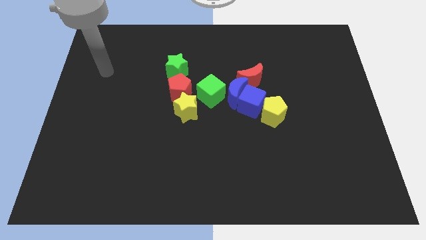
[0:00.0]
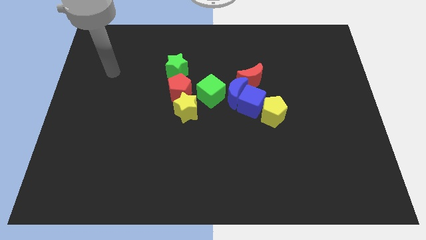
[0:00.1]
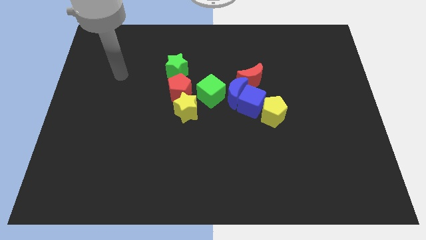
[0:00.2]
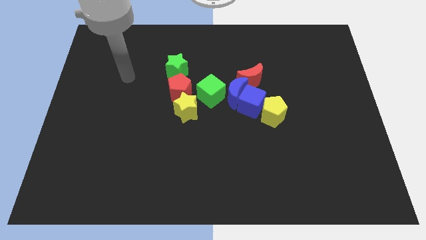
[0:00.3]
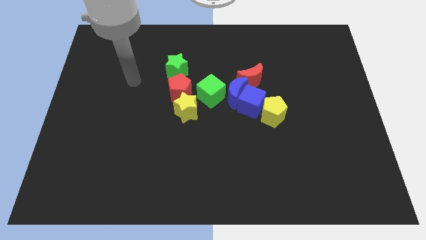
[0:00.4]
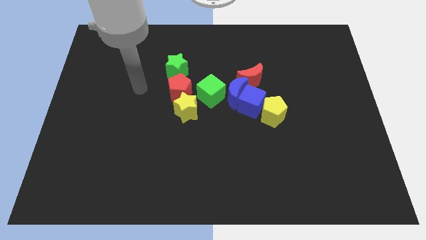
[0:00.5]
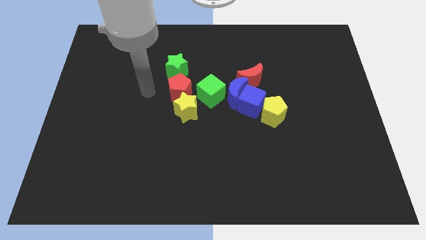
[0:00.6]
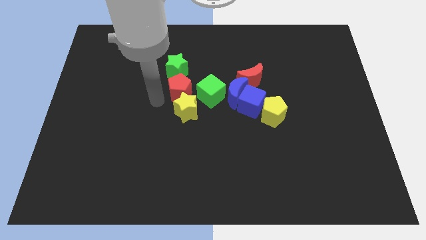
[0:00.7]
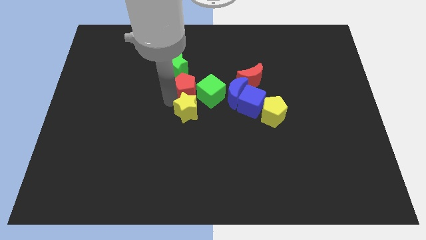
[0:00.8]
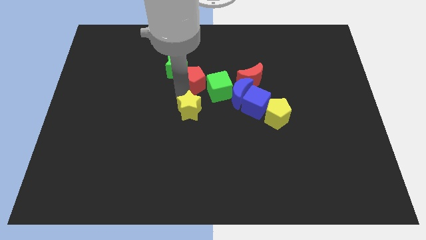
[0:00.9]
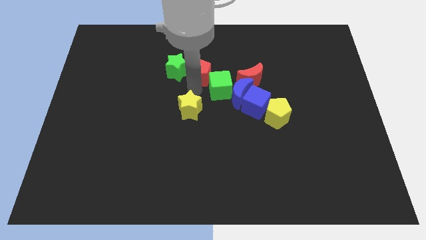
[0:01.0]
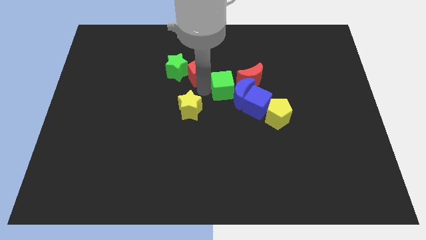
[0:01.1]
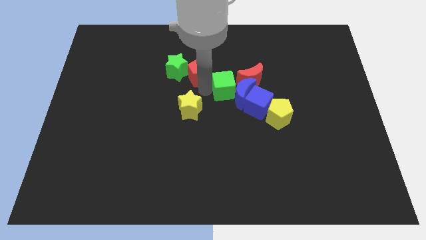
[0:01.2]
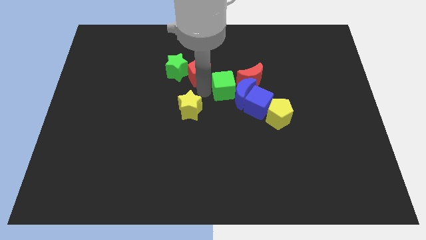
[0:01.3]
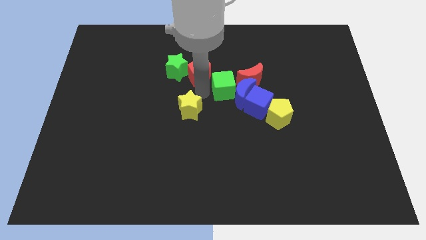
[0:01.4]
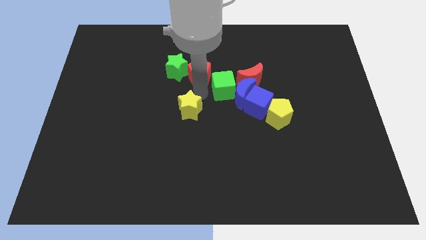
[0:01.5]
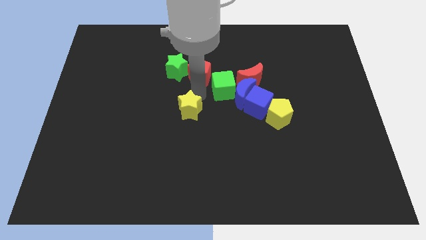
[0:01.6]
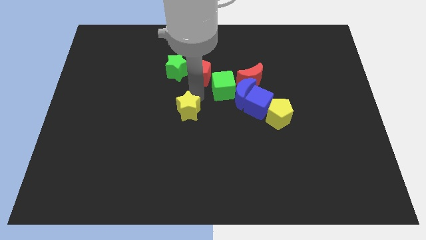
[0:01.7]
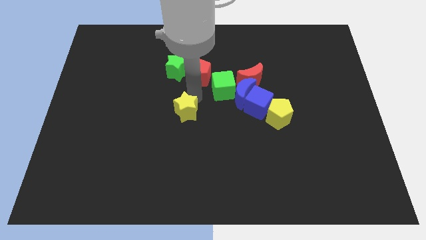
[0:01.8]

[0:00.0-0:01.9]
pull the yellow star apart from the red pentagon and green cube

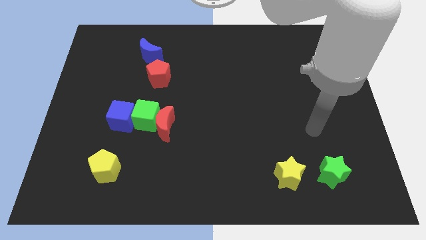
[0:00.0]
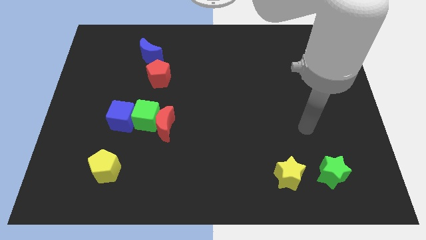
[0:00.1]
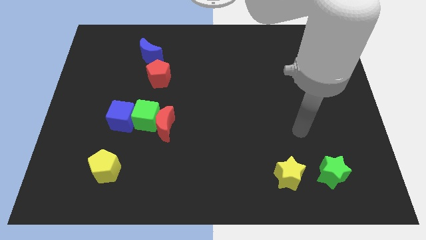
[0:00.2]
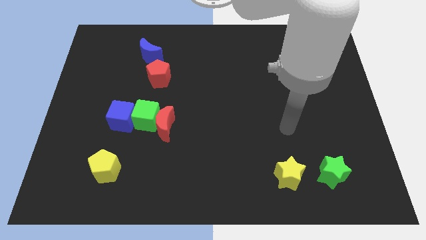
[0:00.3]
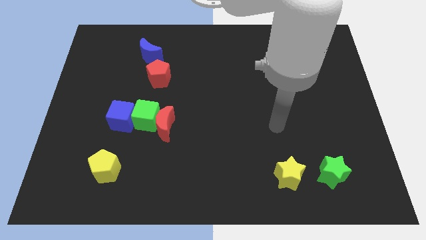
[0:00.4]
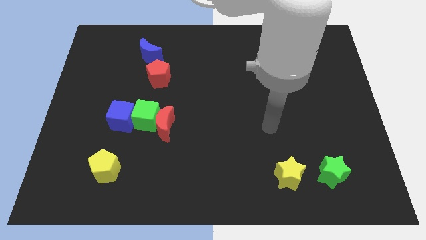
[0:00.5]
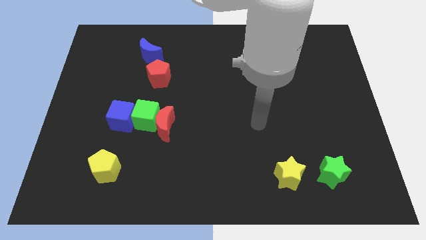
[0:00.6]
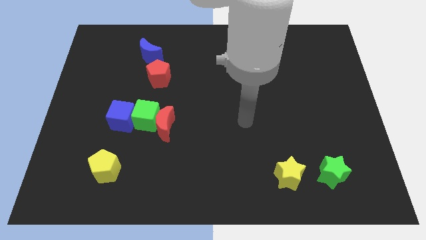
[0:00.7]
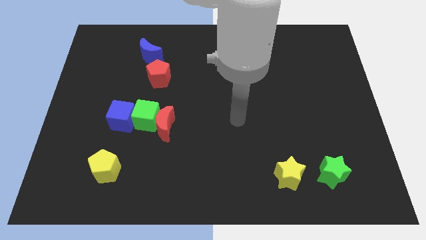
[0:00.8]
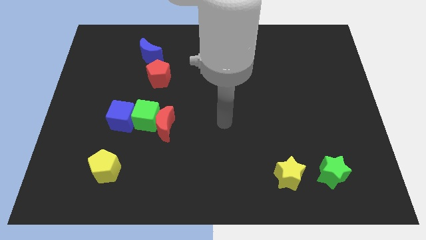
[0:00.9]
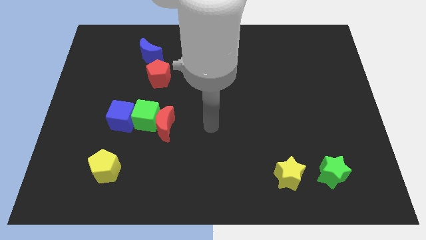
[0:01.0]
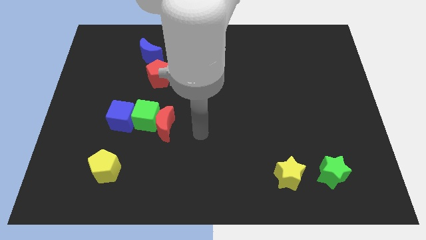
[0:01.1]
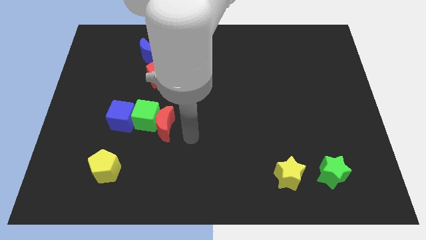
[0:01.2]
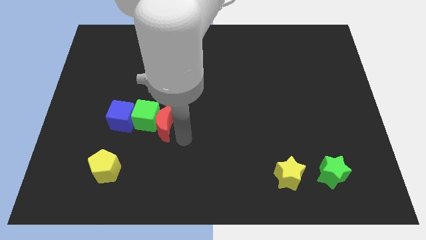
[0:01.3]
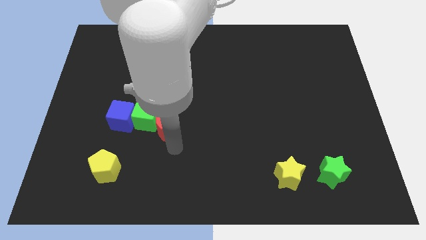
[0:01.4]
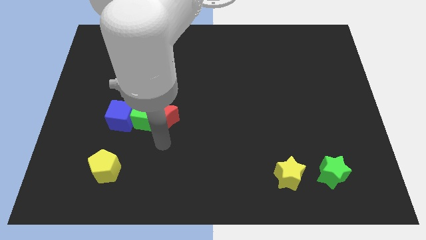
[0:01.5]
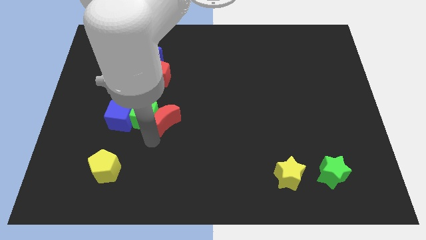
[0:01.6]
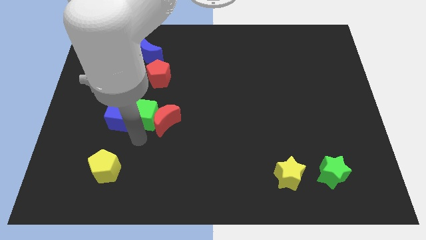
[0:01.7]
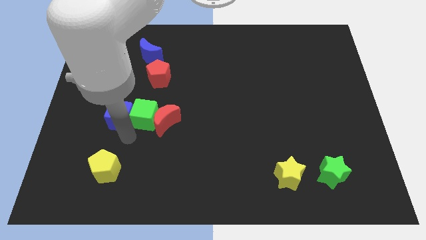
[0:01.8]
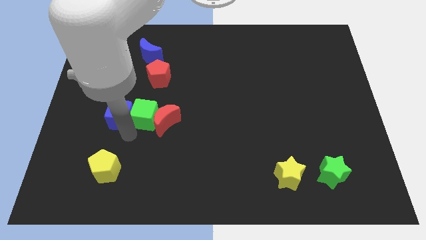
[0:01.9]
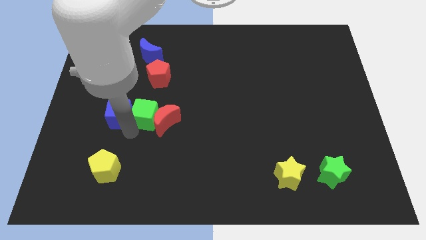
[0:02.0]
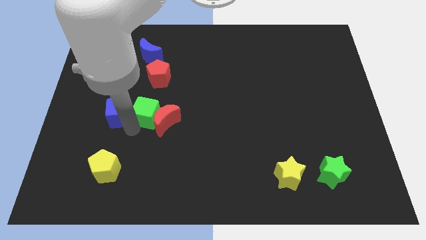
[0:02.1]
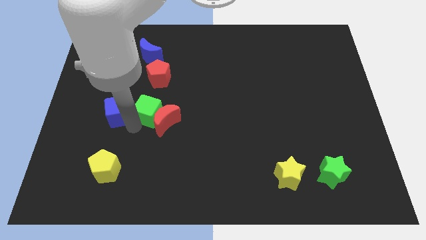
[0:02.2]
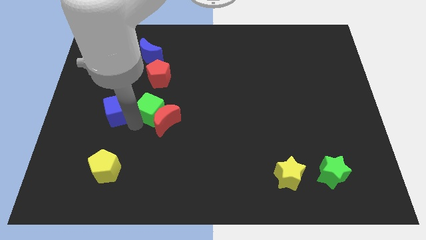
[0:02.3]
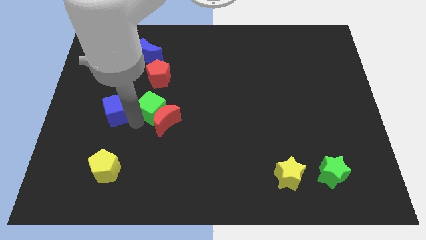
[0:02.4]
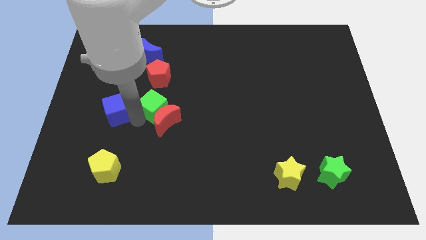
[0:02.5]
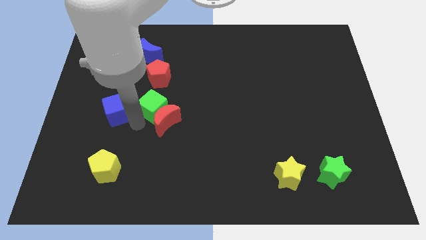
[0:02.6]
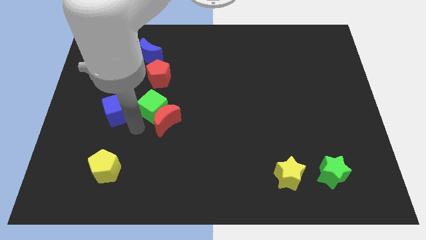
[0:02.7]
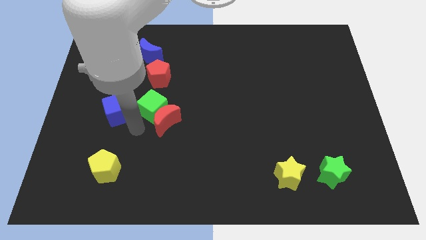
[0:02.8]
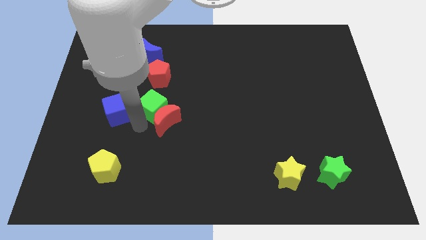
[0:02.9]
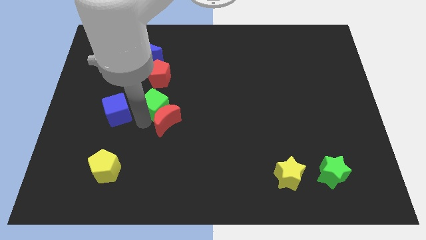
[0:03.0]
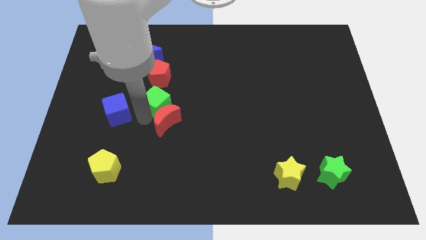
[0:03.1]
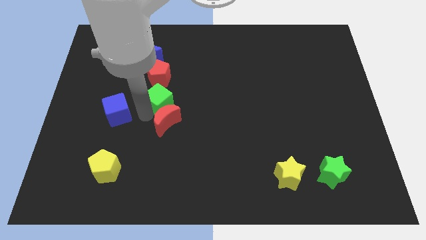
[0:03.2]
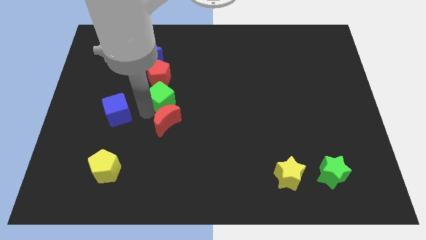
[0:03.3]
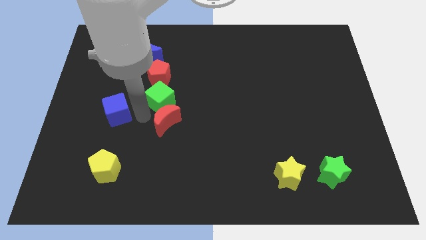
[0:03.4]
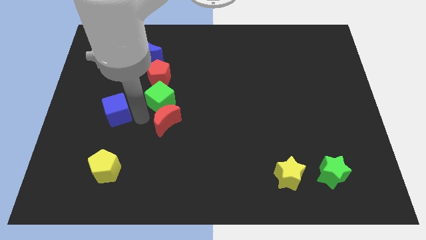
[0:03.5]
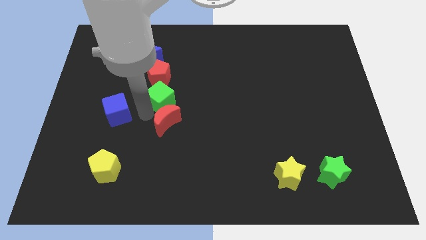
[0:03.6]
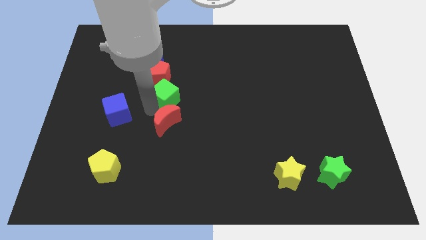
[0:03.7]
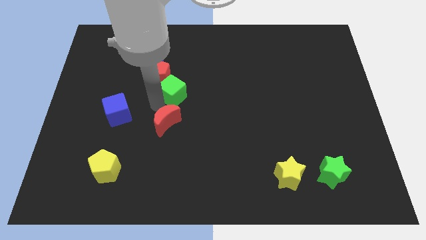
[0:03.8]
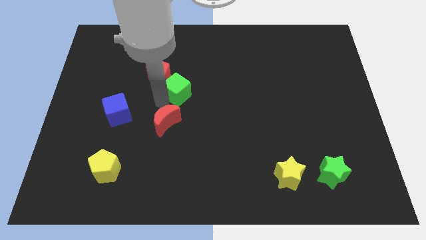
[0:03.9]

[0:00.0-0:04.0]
move the green cube away from the red moon and blue cube

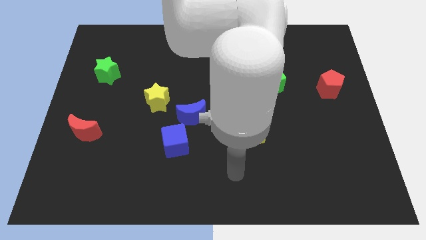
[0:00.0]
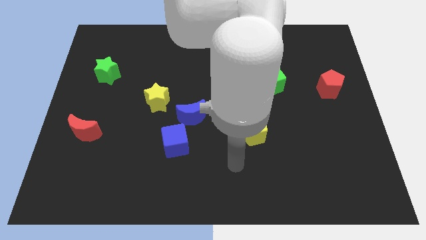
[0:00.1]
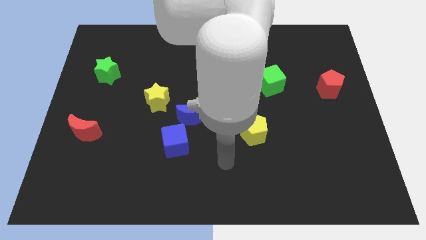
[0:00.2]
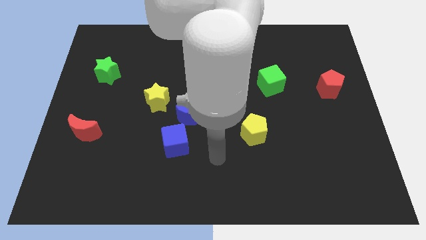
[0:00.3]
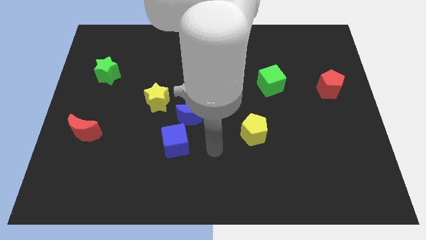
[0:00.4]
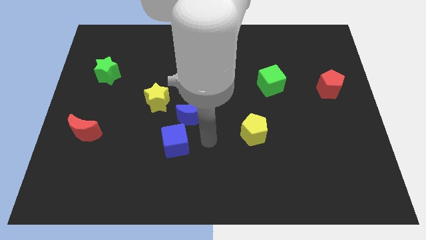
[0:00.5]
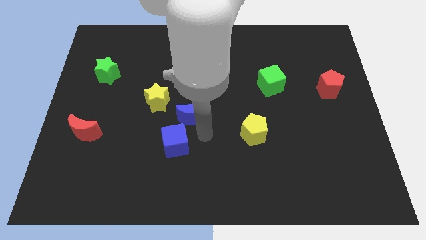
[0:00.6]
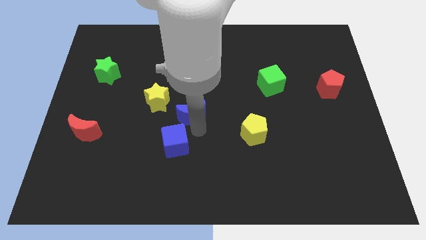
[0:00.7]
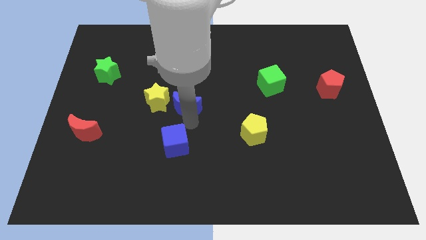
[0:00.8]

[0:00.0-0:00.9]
separate the blue cube from the blue moon

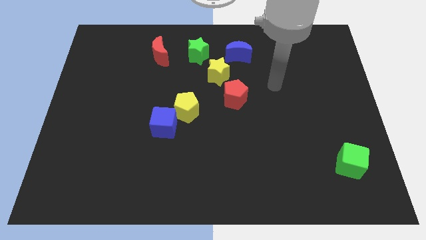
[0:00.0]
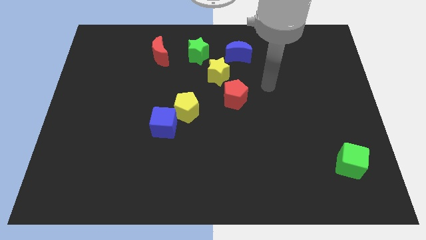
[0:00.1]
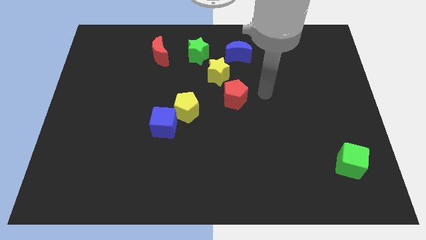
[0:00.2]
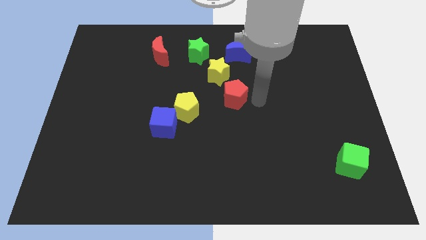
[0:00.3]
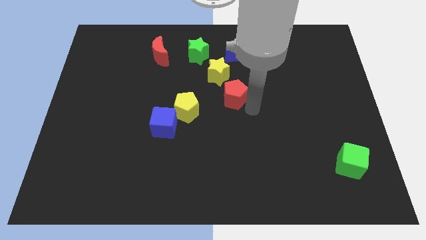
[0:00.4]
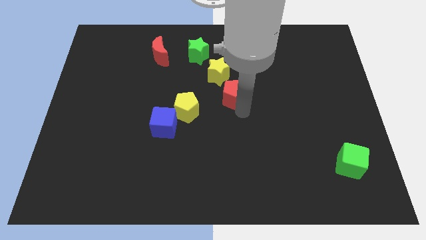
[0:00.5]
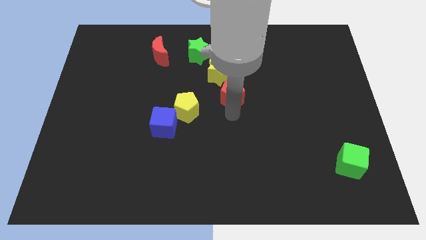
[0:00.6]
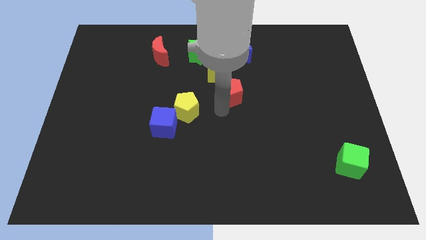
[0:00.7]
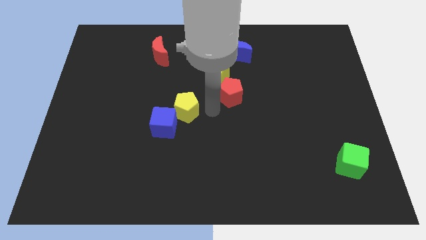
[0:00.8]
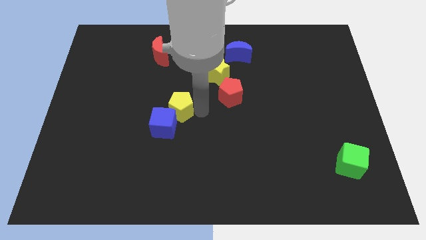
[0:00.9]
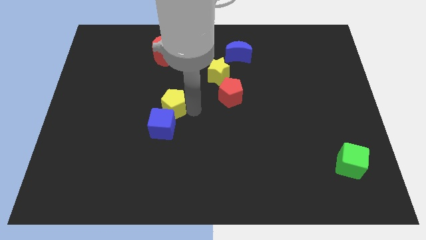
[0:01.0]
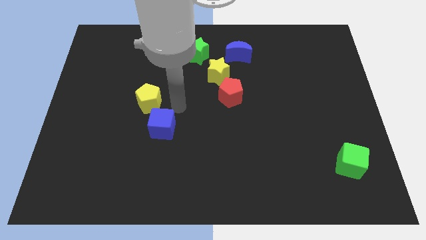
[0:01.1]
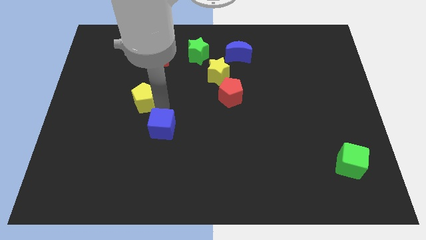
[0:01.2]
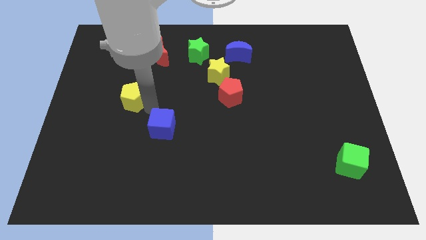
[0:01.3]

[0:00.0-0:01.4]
move the blue cube away from the yellow pentagon

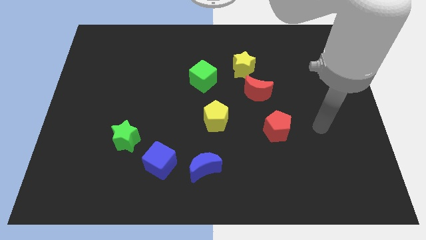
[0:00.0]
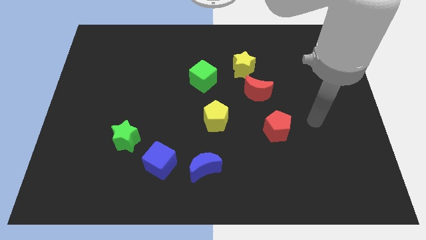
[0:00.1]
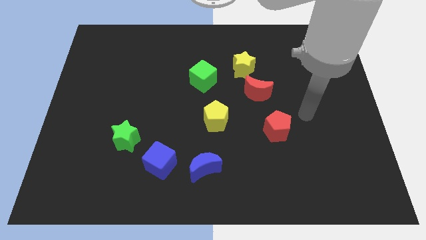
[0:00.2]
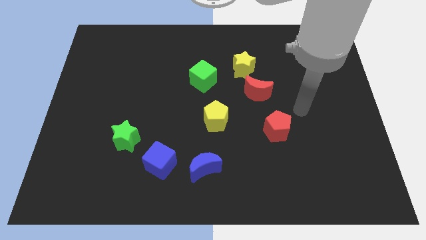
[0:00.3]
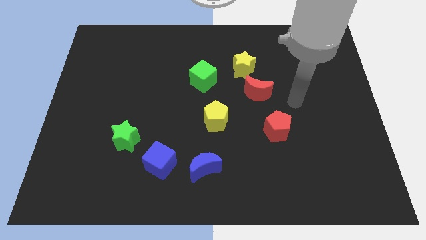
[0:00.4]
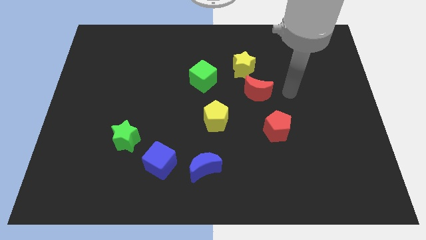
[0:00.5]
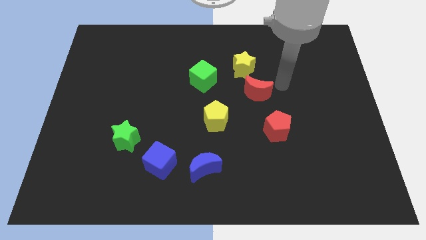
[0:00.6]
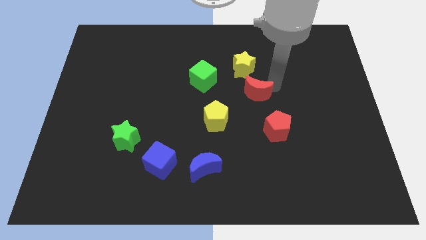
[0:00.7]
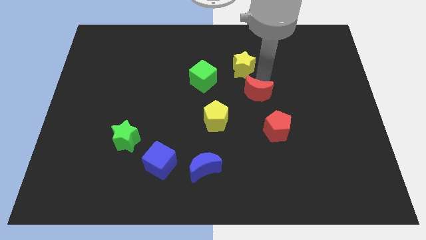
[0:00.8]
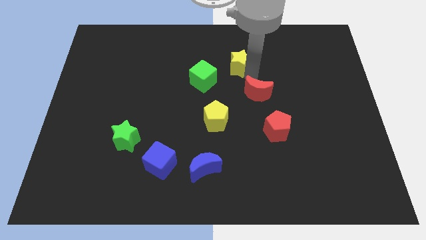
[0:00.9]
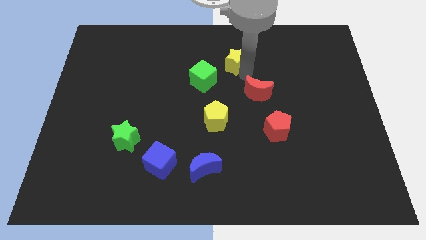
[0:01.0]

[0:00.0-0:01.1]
move the red moon away from the yellow star

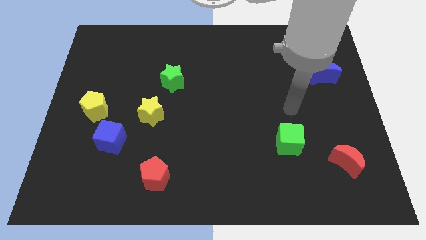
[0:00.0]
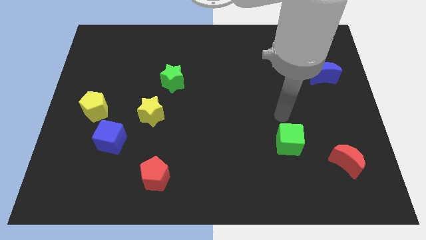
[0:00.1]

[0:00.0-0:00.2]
separate the blue cube from the yellow pentagon
